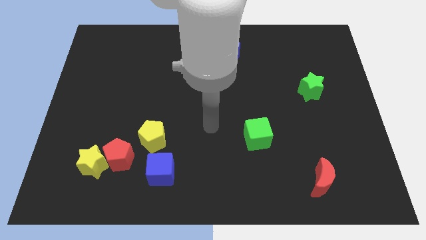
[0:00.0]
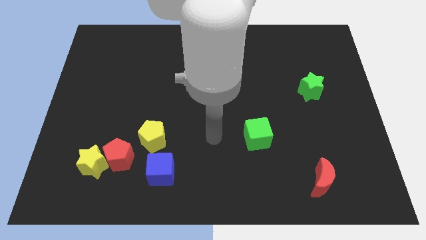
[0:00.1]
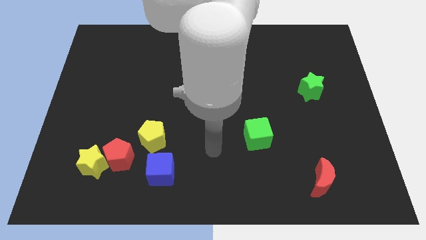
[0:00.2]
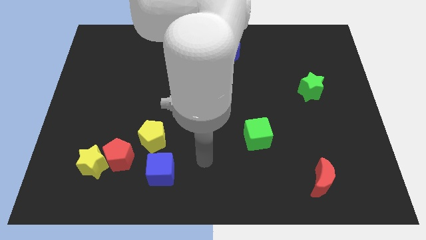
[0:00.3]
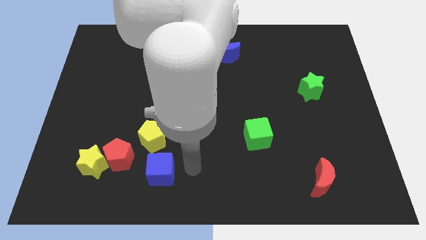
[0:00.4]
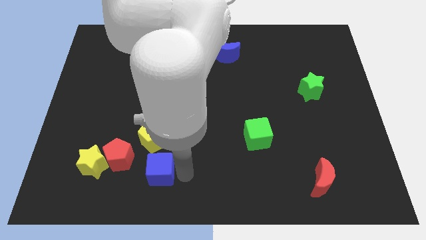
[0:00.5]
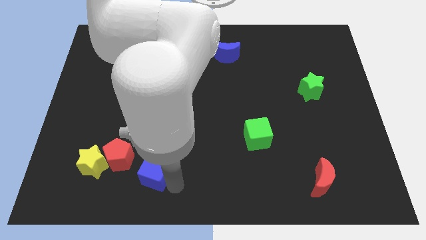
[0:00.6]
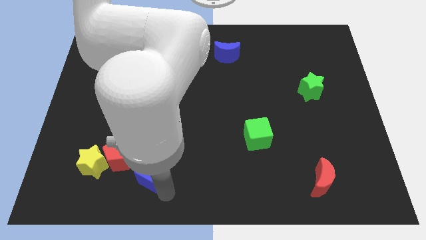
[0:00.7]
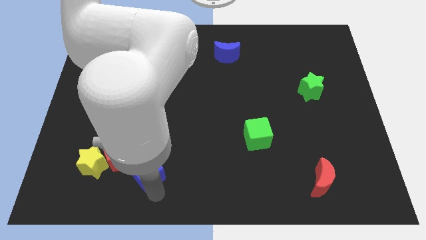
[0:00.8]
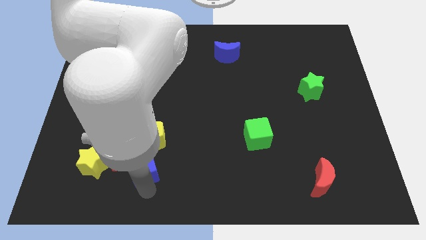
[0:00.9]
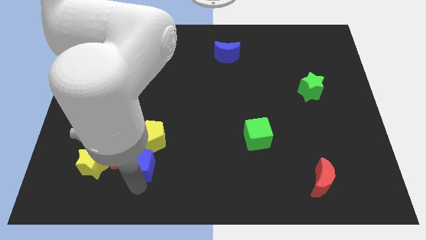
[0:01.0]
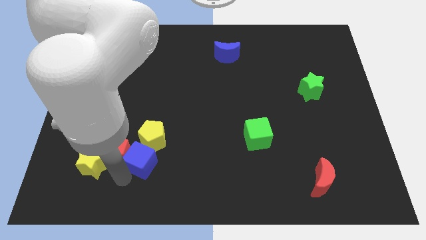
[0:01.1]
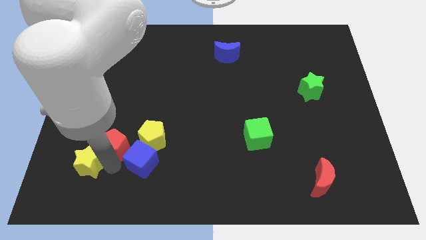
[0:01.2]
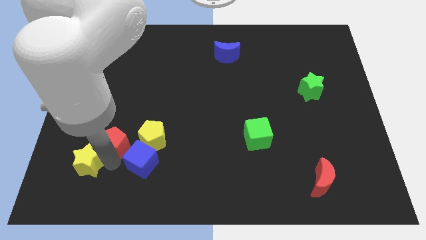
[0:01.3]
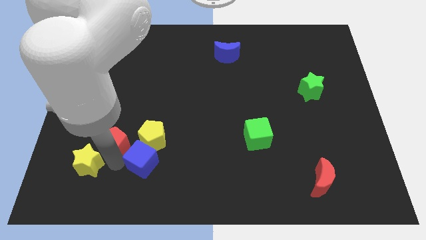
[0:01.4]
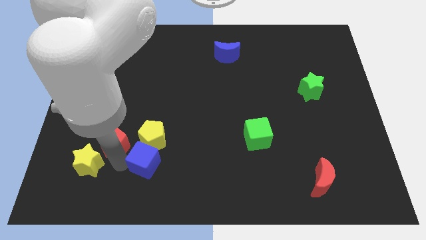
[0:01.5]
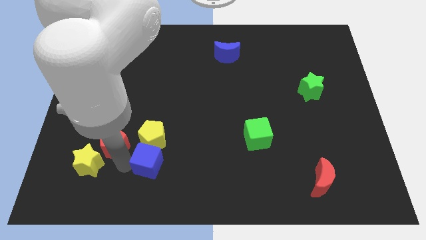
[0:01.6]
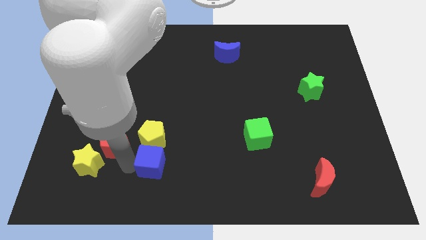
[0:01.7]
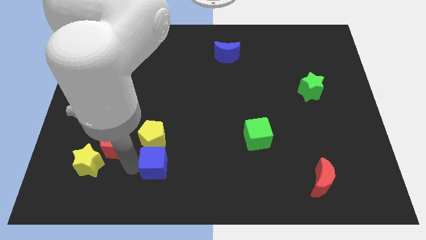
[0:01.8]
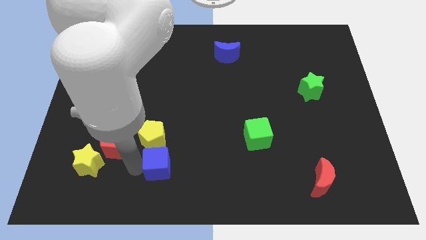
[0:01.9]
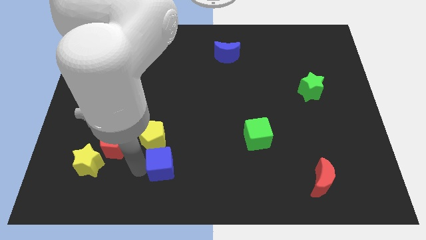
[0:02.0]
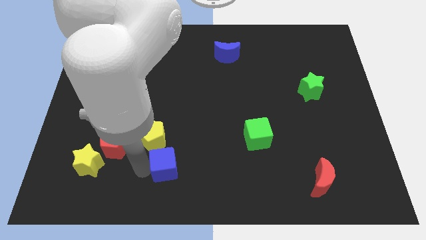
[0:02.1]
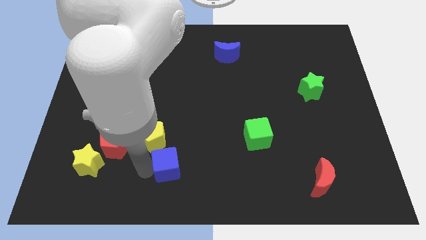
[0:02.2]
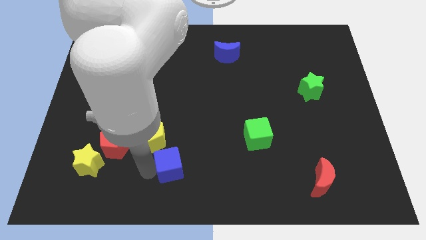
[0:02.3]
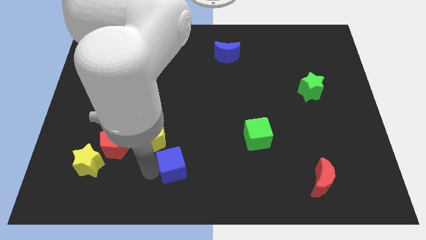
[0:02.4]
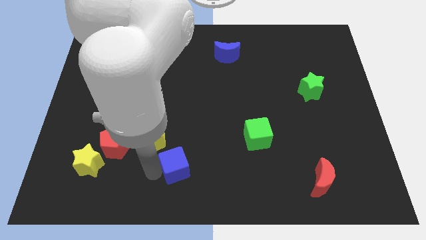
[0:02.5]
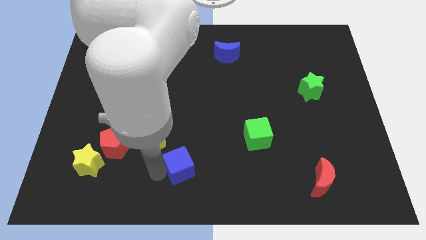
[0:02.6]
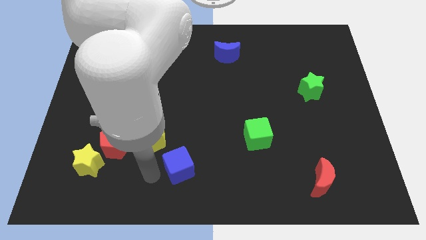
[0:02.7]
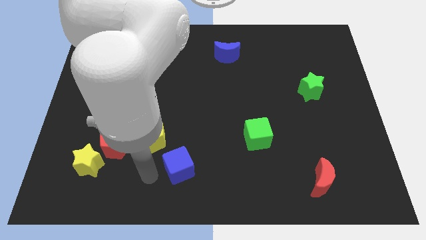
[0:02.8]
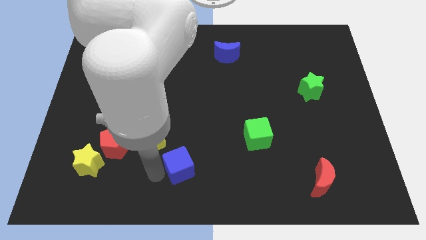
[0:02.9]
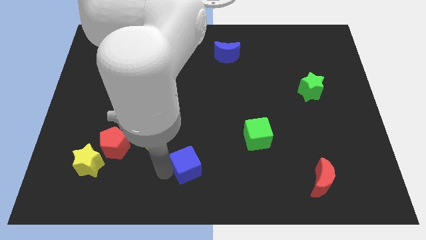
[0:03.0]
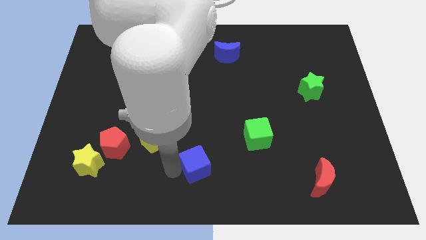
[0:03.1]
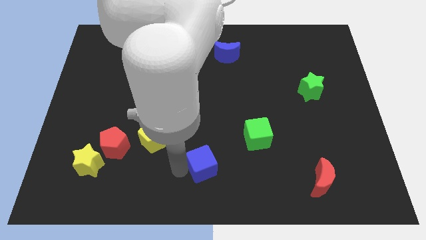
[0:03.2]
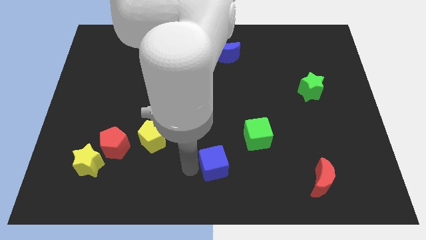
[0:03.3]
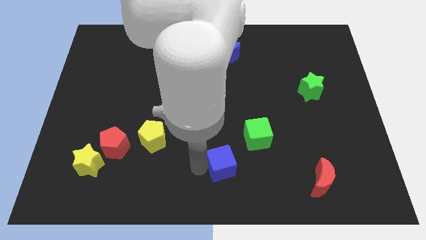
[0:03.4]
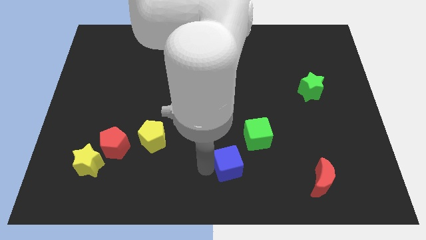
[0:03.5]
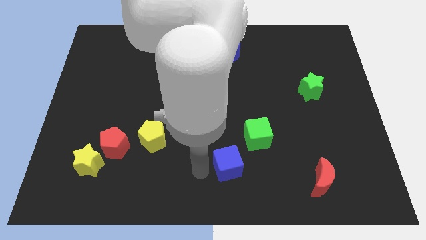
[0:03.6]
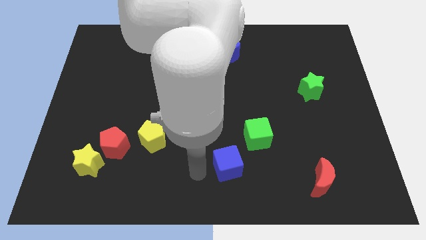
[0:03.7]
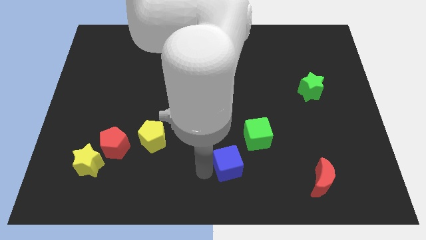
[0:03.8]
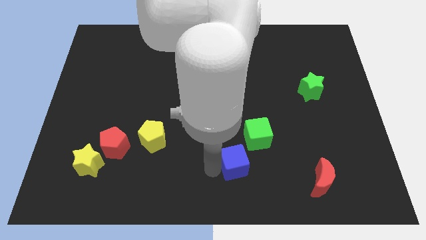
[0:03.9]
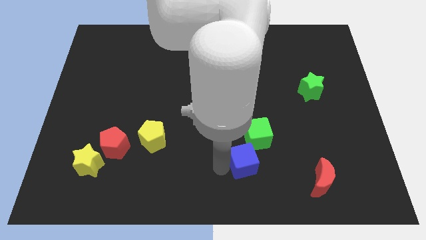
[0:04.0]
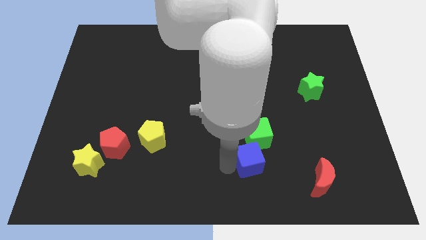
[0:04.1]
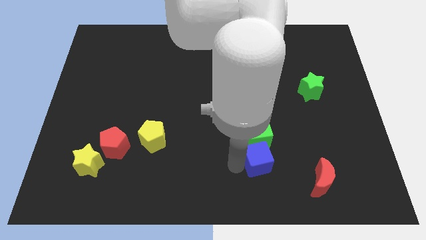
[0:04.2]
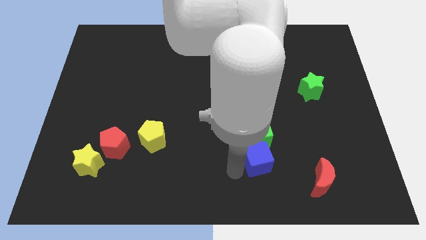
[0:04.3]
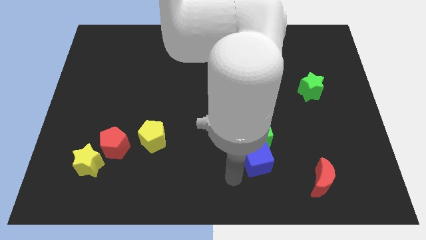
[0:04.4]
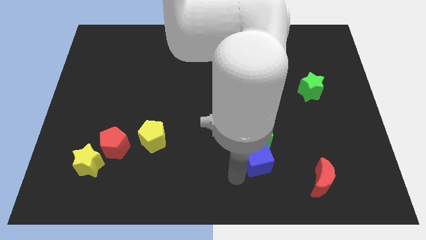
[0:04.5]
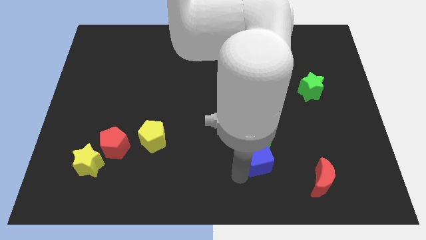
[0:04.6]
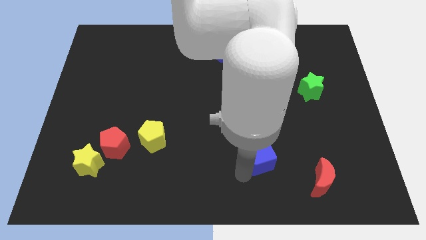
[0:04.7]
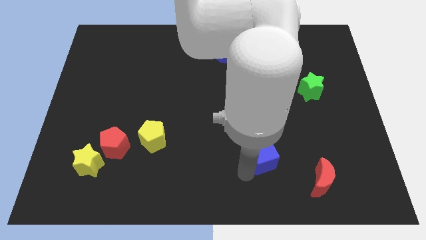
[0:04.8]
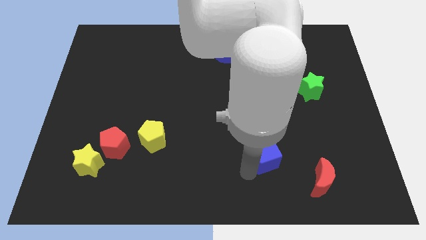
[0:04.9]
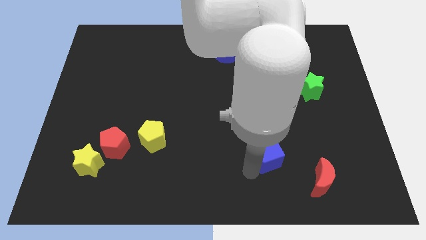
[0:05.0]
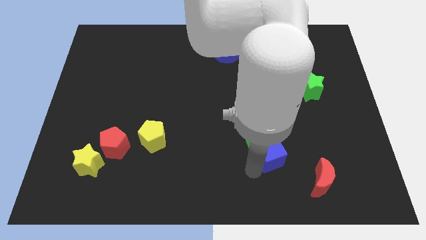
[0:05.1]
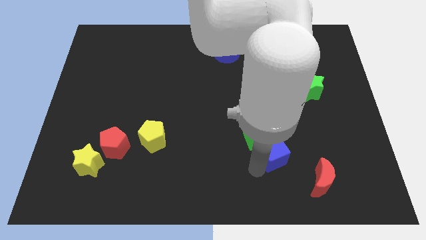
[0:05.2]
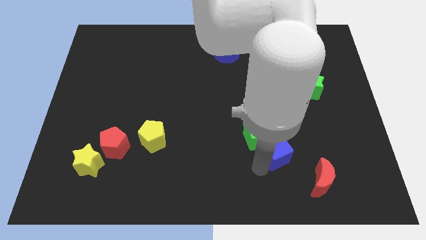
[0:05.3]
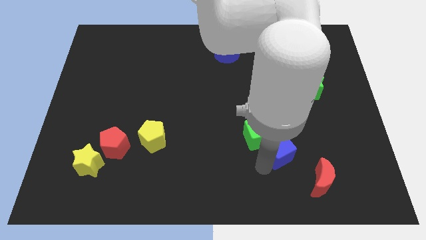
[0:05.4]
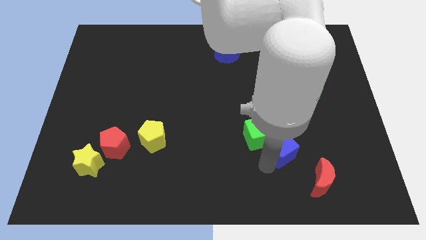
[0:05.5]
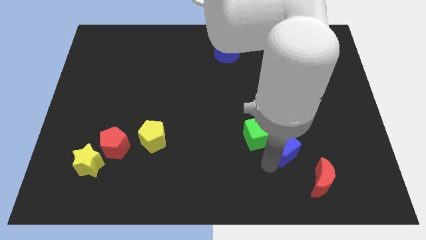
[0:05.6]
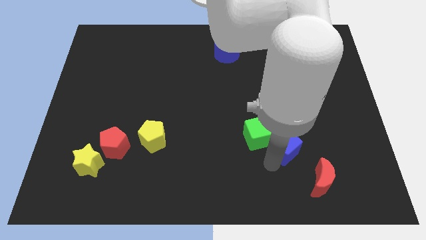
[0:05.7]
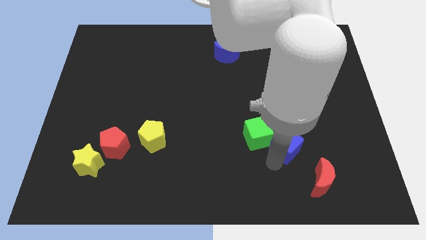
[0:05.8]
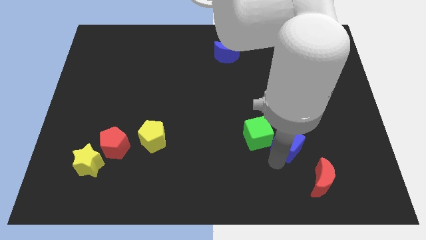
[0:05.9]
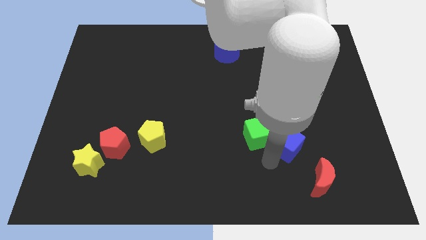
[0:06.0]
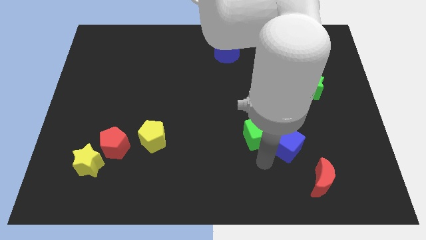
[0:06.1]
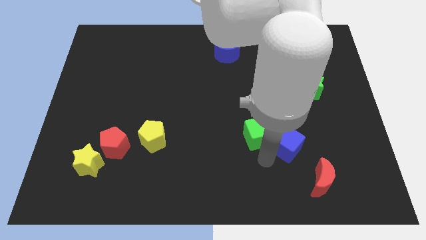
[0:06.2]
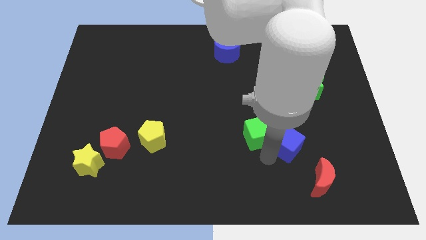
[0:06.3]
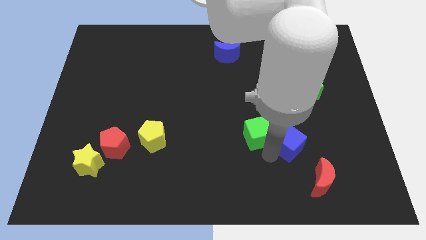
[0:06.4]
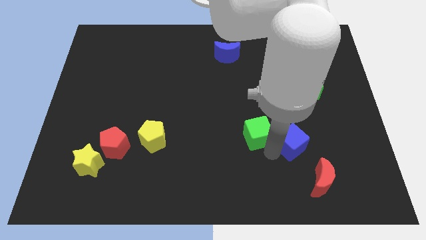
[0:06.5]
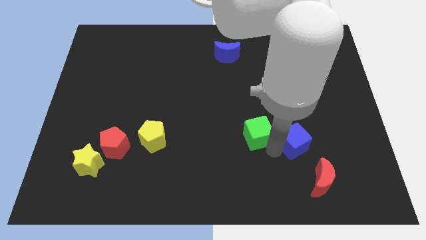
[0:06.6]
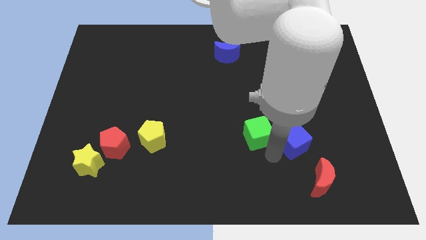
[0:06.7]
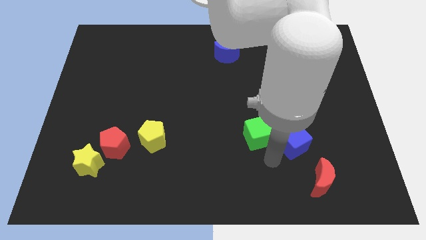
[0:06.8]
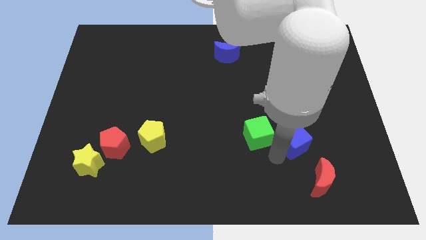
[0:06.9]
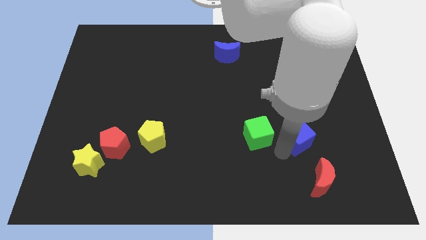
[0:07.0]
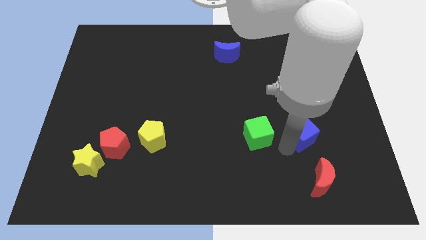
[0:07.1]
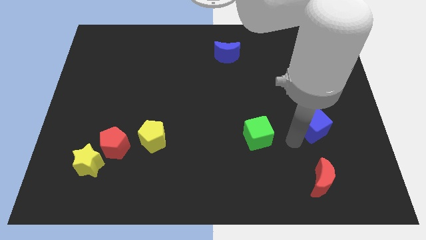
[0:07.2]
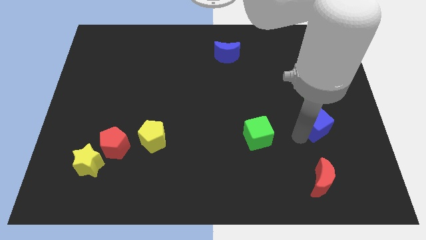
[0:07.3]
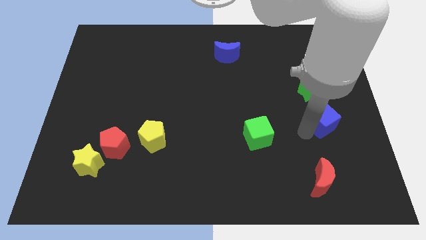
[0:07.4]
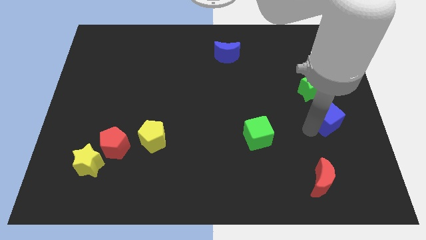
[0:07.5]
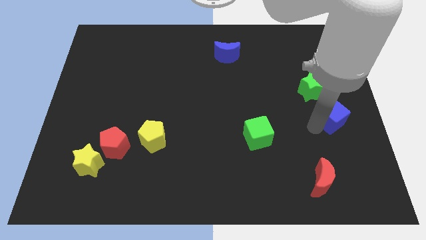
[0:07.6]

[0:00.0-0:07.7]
put the blue cube to the right side of the board
